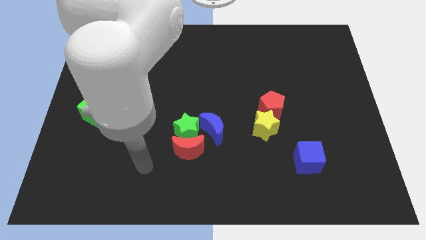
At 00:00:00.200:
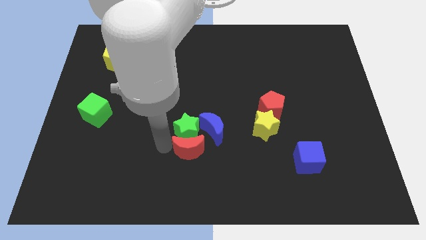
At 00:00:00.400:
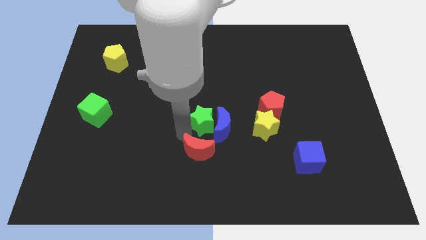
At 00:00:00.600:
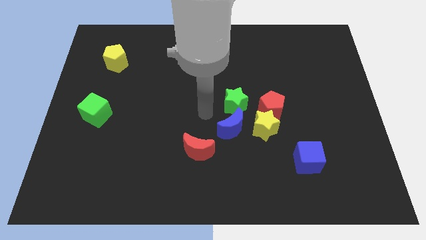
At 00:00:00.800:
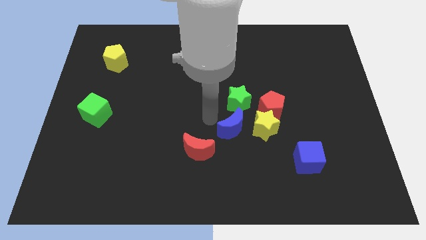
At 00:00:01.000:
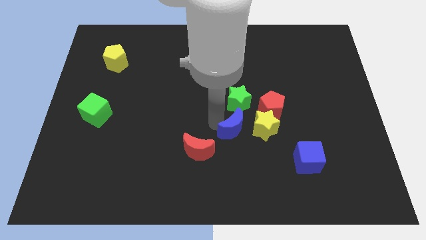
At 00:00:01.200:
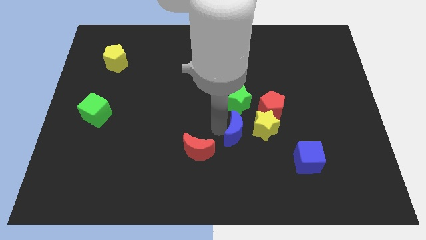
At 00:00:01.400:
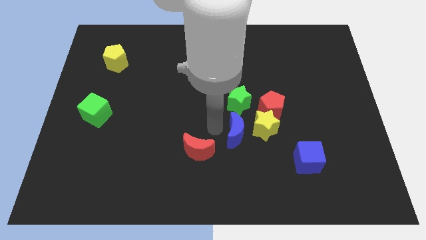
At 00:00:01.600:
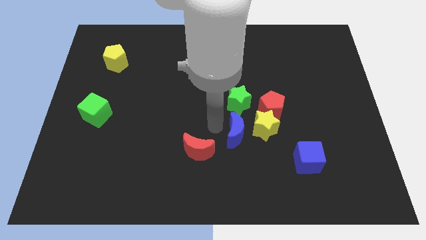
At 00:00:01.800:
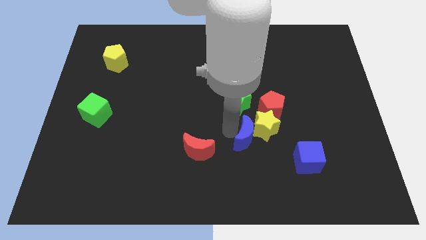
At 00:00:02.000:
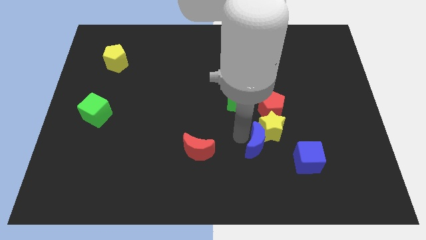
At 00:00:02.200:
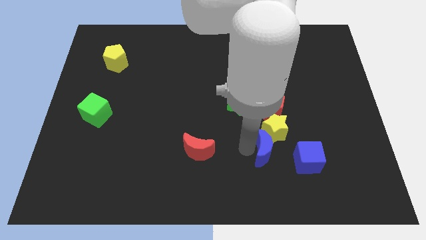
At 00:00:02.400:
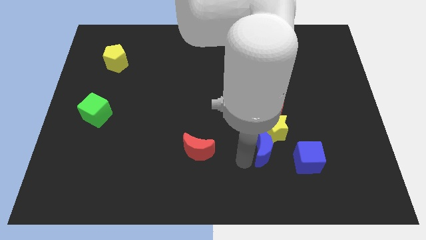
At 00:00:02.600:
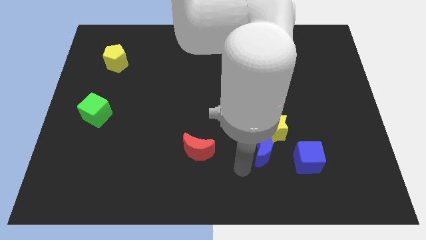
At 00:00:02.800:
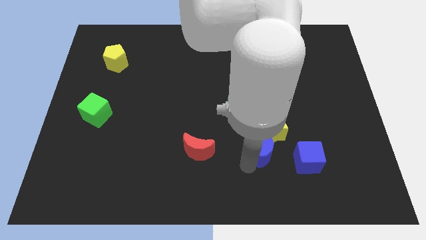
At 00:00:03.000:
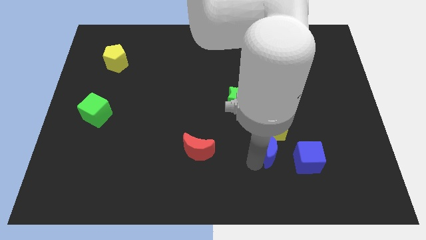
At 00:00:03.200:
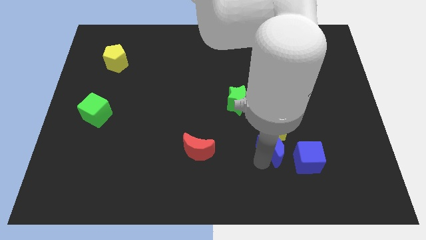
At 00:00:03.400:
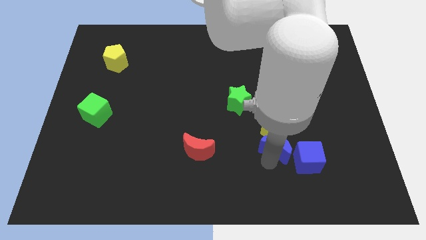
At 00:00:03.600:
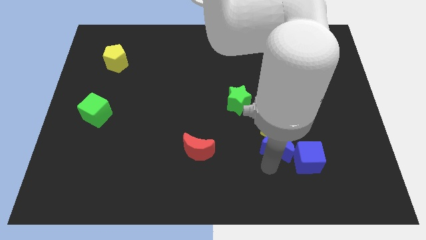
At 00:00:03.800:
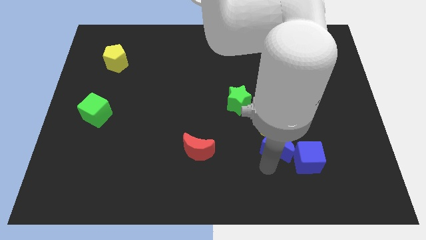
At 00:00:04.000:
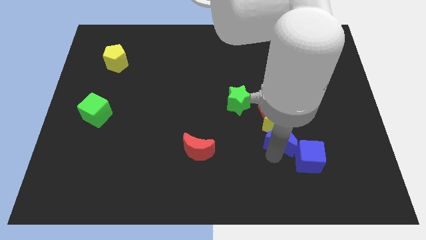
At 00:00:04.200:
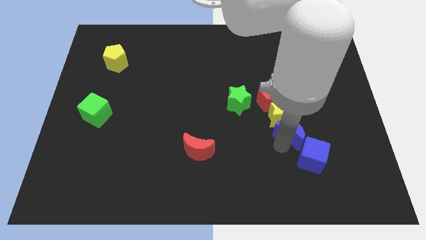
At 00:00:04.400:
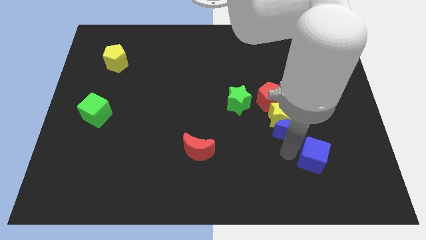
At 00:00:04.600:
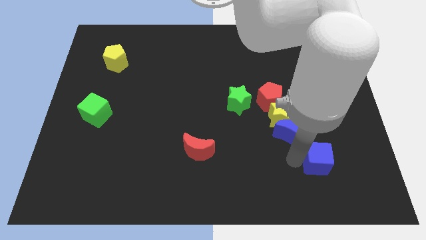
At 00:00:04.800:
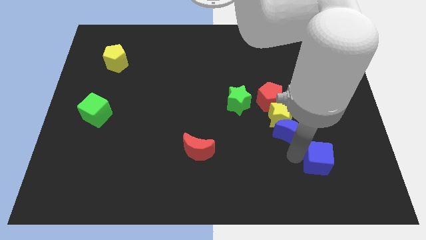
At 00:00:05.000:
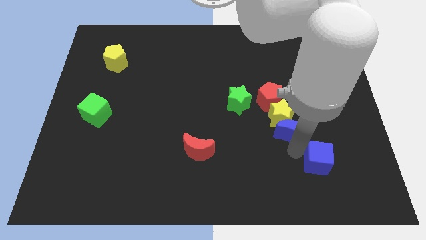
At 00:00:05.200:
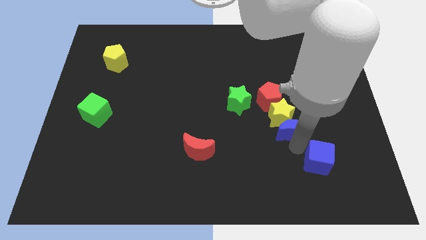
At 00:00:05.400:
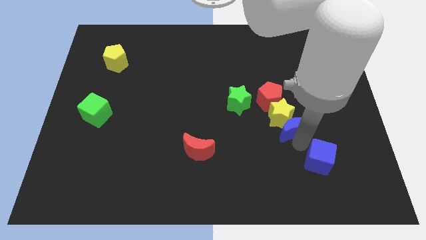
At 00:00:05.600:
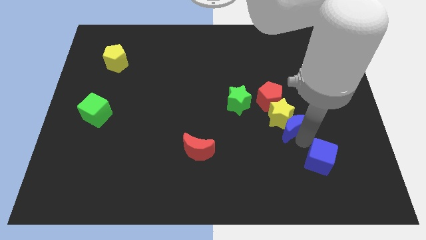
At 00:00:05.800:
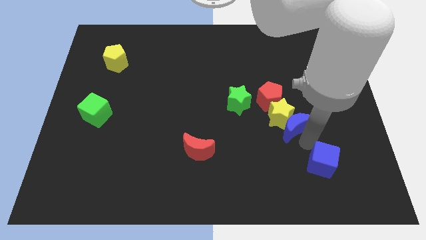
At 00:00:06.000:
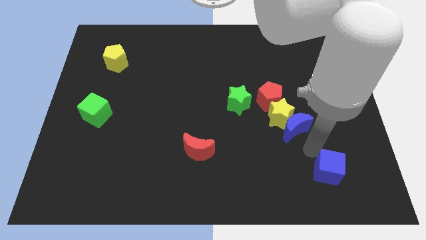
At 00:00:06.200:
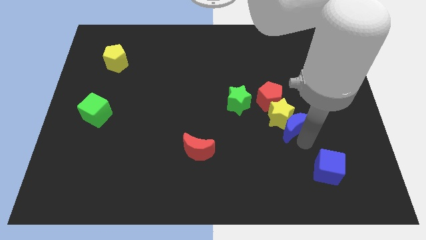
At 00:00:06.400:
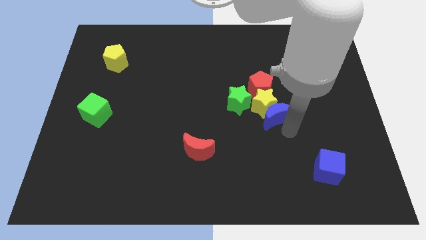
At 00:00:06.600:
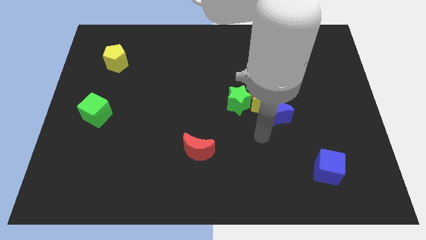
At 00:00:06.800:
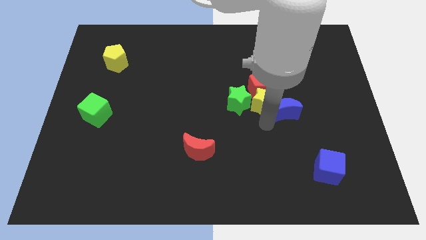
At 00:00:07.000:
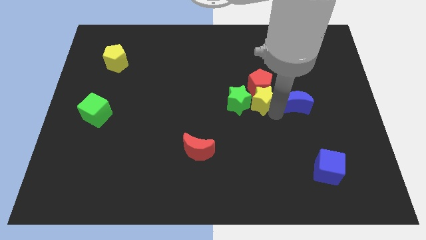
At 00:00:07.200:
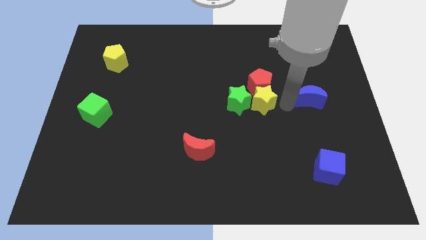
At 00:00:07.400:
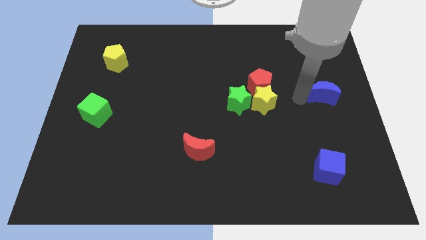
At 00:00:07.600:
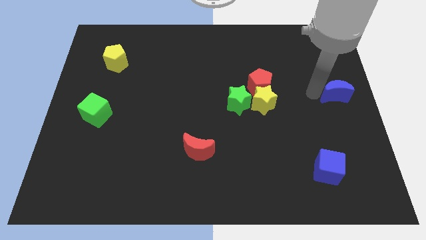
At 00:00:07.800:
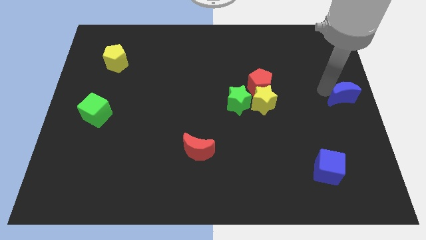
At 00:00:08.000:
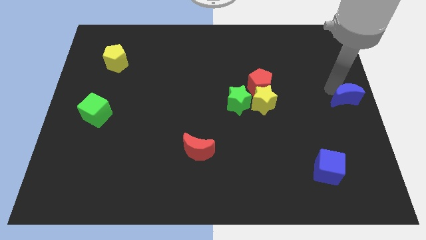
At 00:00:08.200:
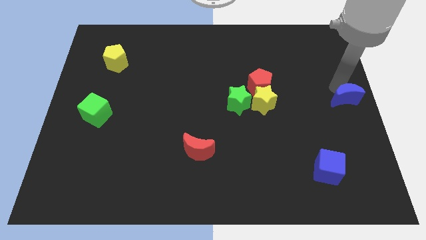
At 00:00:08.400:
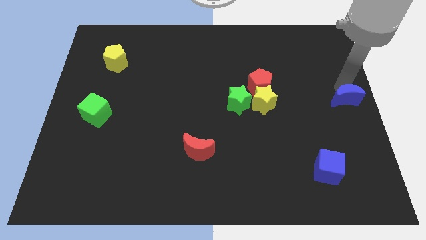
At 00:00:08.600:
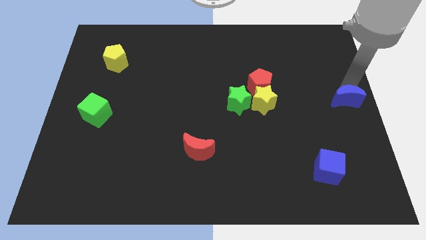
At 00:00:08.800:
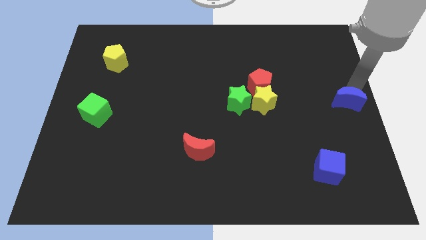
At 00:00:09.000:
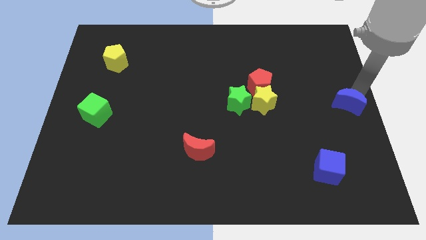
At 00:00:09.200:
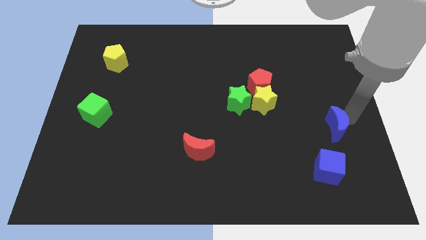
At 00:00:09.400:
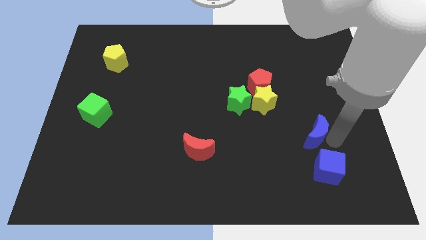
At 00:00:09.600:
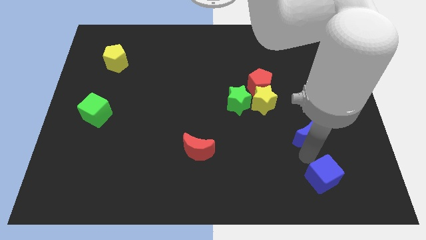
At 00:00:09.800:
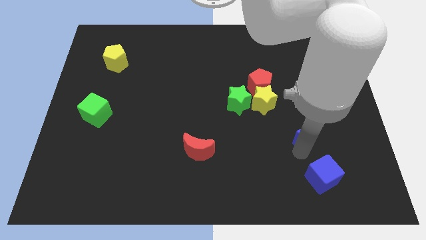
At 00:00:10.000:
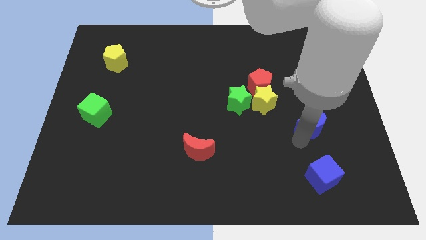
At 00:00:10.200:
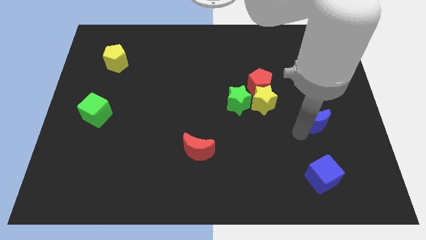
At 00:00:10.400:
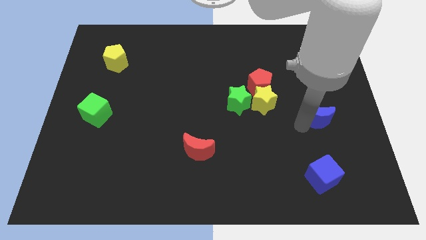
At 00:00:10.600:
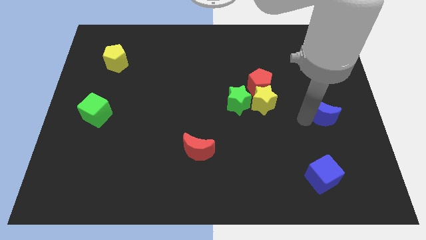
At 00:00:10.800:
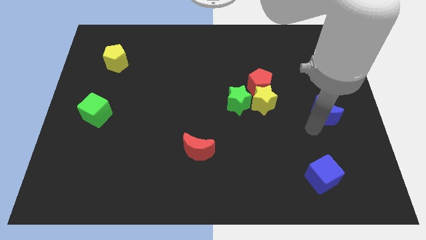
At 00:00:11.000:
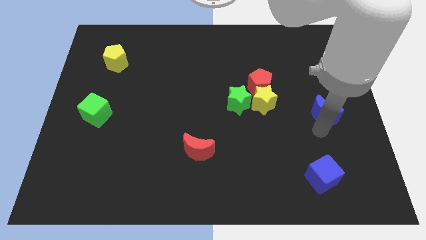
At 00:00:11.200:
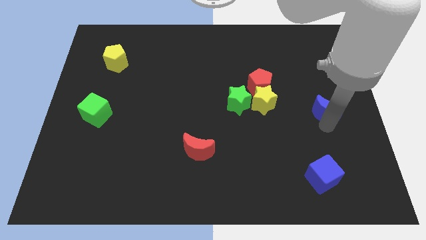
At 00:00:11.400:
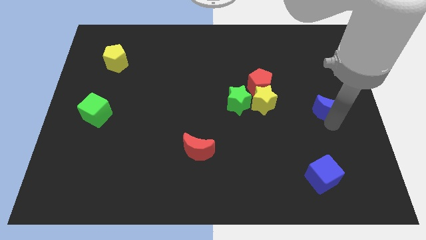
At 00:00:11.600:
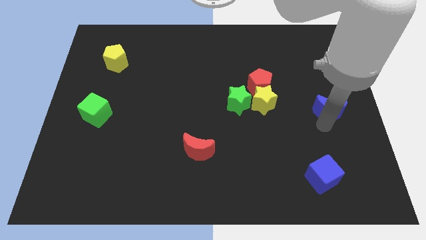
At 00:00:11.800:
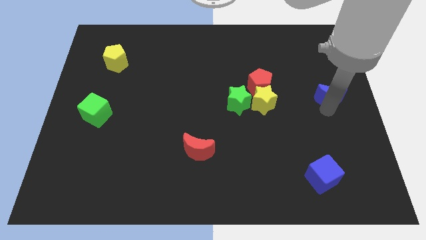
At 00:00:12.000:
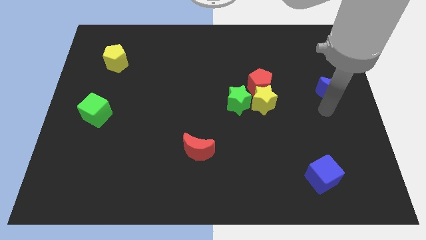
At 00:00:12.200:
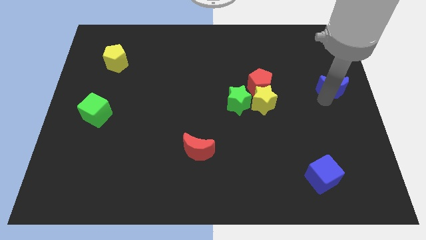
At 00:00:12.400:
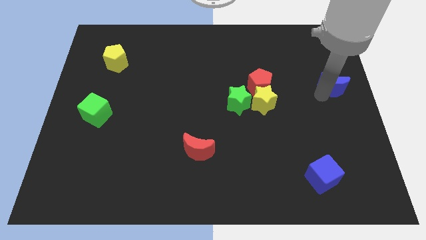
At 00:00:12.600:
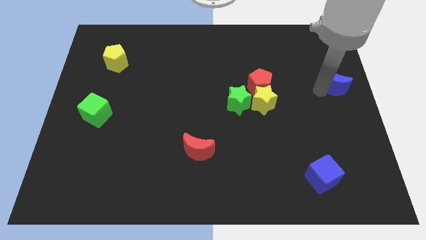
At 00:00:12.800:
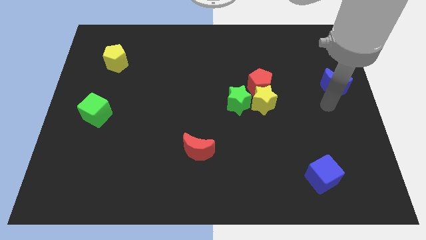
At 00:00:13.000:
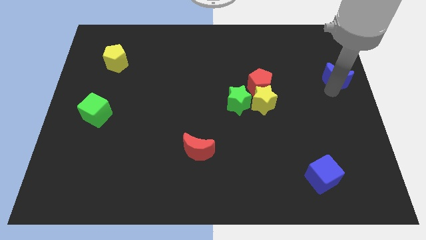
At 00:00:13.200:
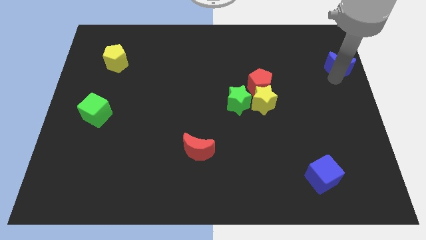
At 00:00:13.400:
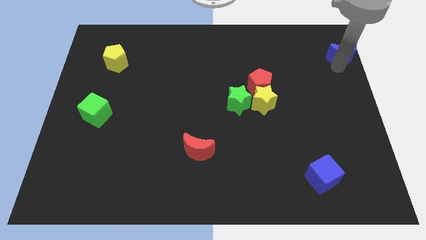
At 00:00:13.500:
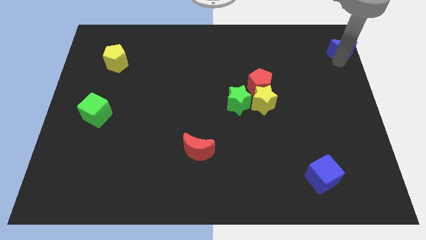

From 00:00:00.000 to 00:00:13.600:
push the blue moon to the upper right corner
